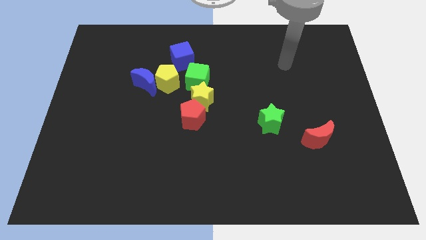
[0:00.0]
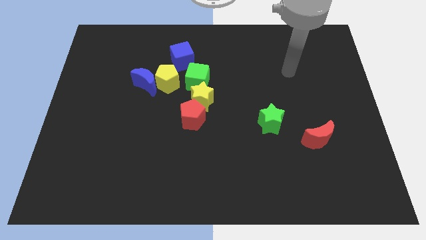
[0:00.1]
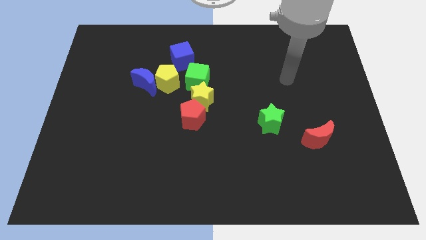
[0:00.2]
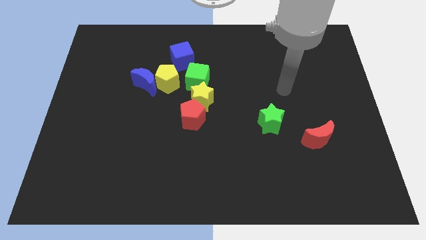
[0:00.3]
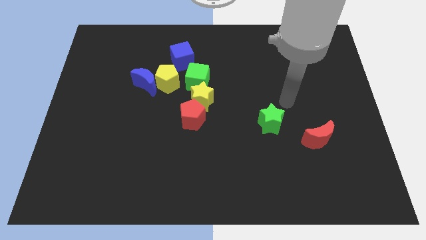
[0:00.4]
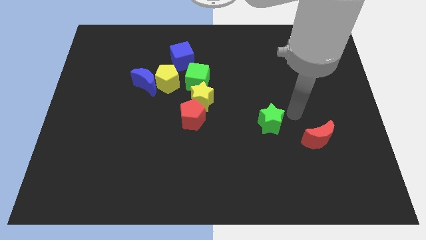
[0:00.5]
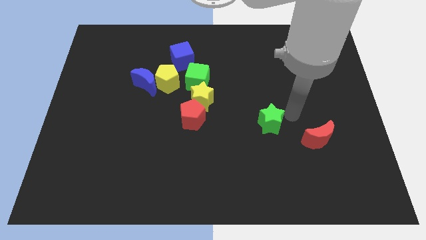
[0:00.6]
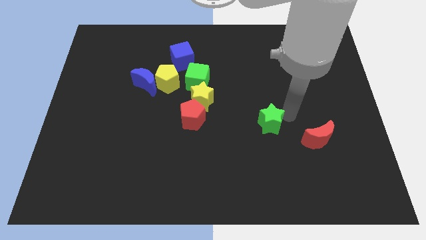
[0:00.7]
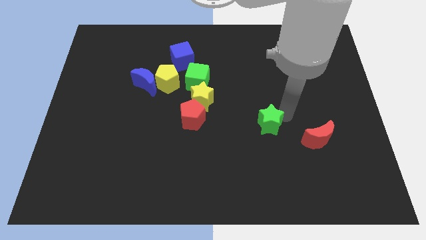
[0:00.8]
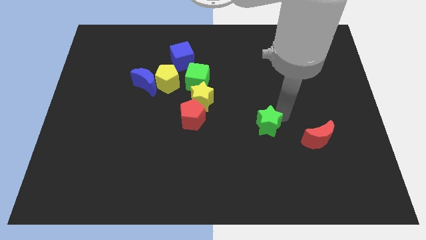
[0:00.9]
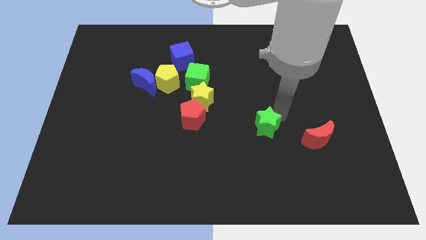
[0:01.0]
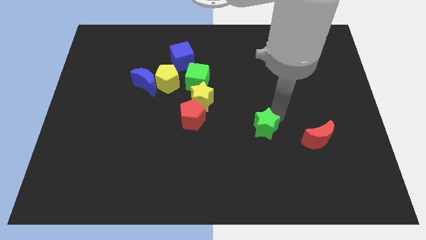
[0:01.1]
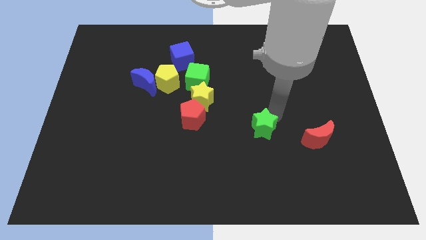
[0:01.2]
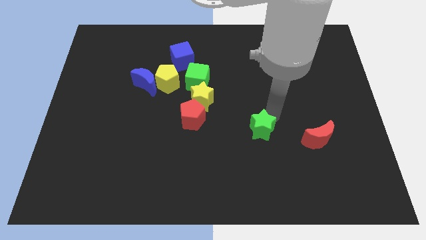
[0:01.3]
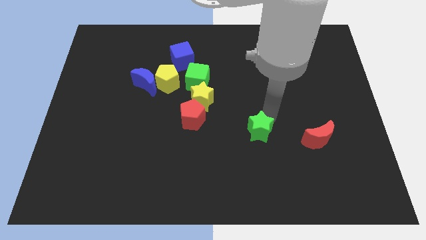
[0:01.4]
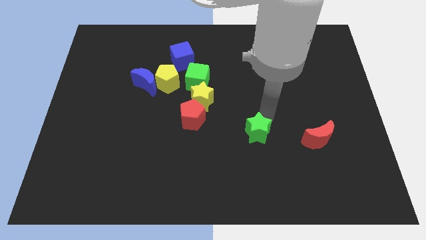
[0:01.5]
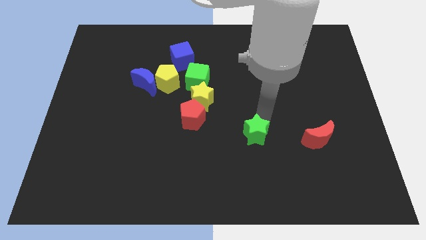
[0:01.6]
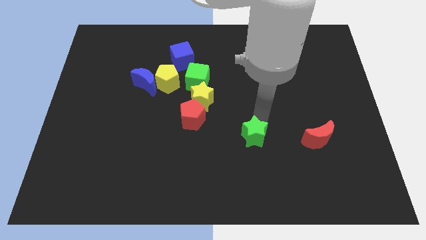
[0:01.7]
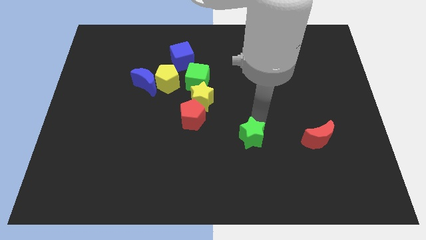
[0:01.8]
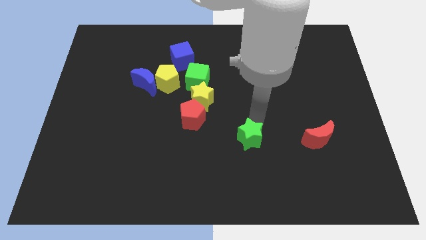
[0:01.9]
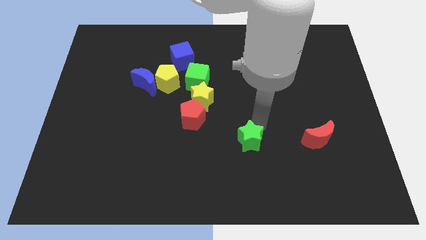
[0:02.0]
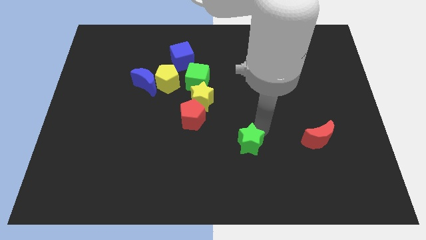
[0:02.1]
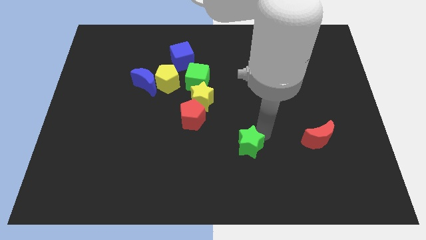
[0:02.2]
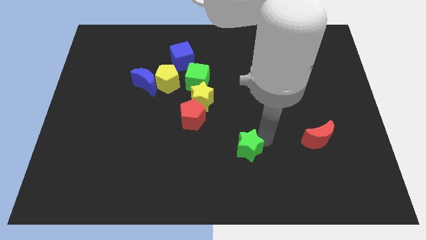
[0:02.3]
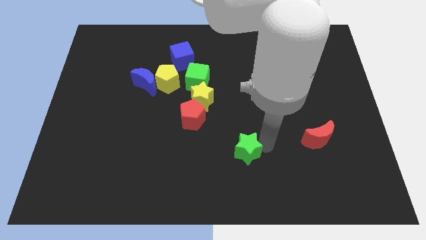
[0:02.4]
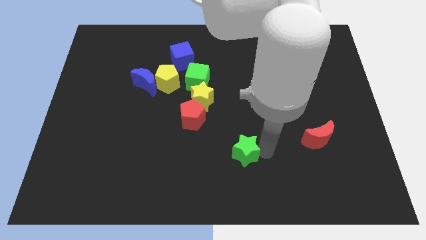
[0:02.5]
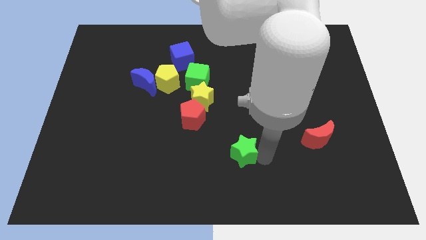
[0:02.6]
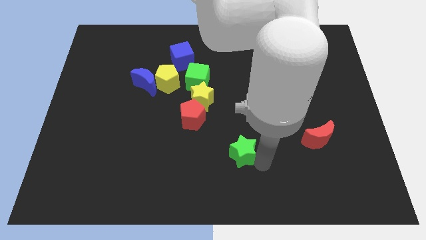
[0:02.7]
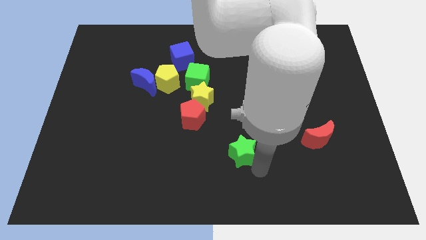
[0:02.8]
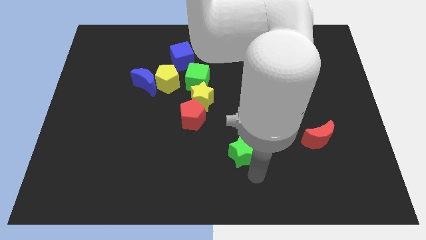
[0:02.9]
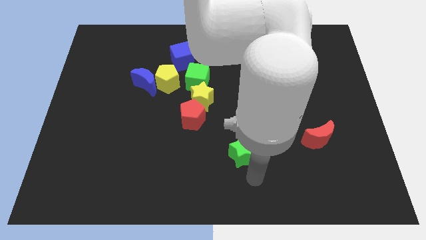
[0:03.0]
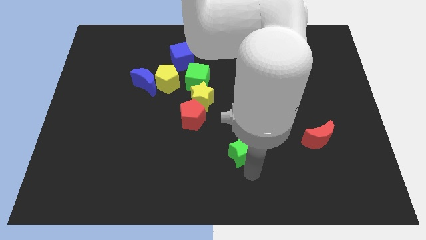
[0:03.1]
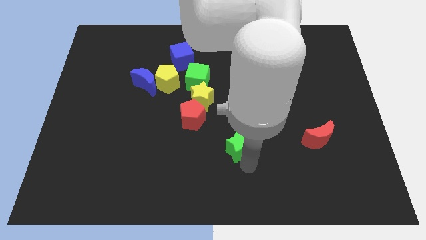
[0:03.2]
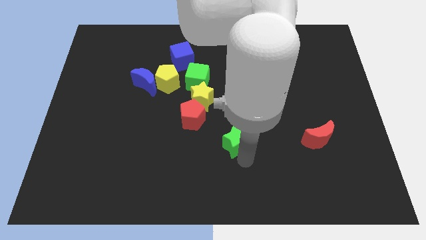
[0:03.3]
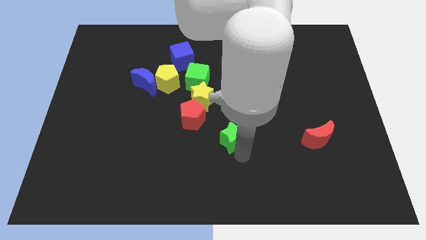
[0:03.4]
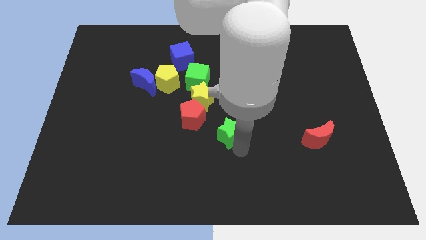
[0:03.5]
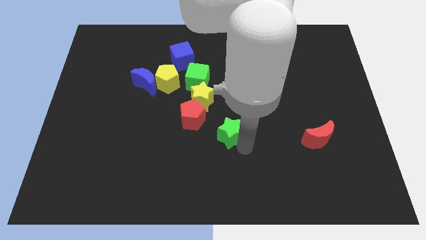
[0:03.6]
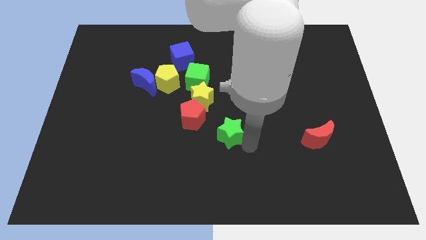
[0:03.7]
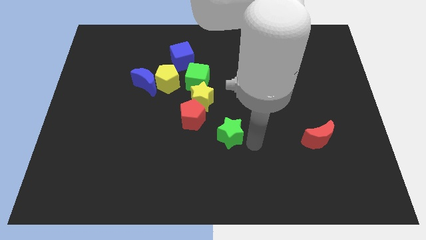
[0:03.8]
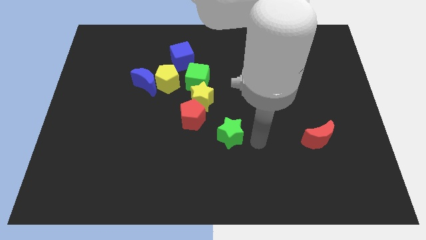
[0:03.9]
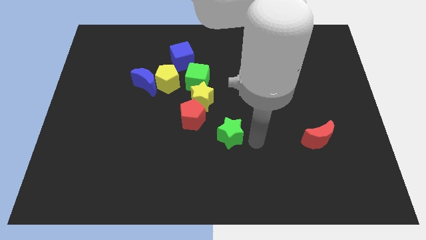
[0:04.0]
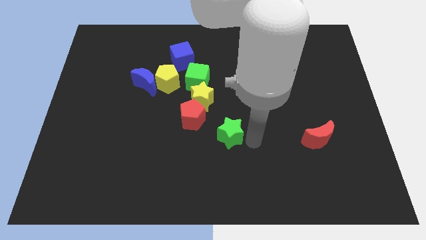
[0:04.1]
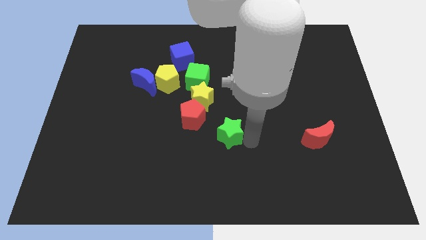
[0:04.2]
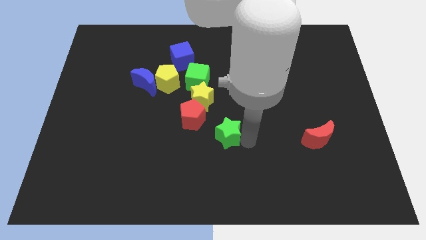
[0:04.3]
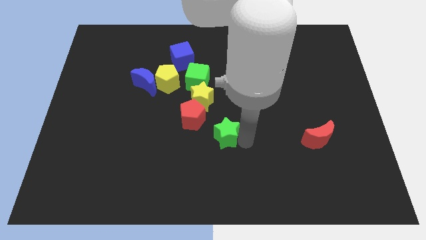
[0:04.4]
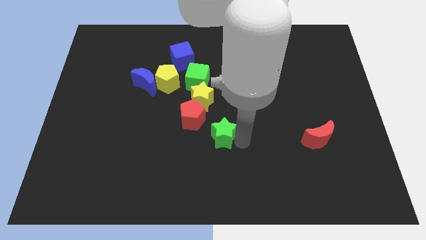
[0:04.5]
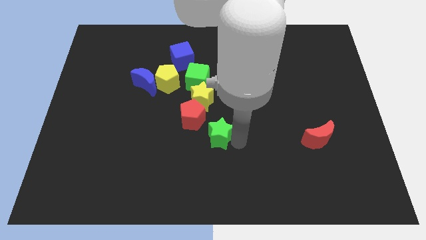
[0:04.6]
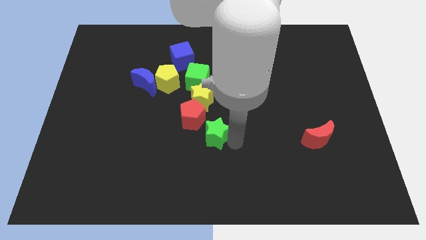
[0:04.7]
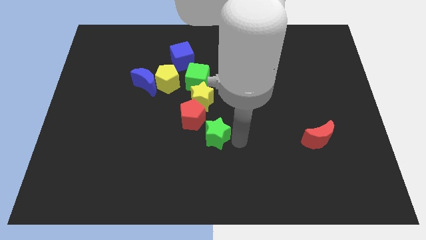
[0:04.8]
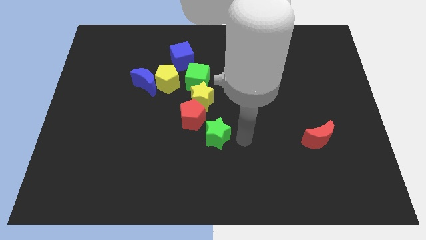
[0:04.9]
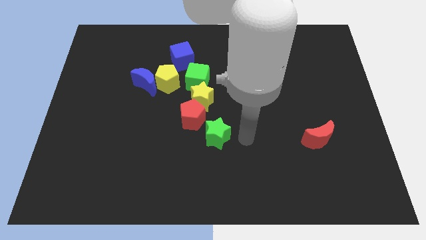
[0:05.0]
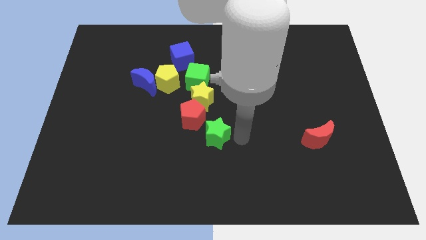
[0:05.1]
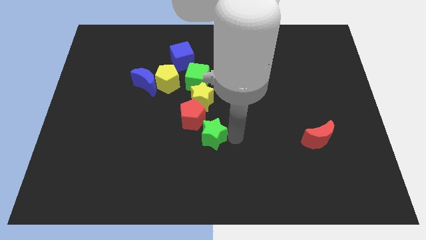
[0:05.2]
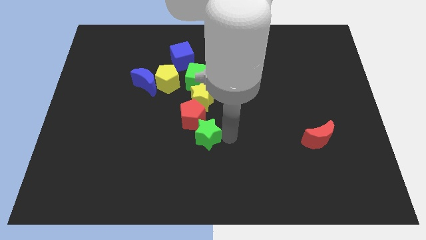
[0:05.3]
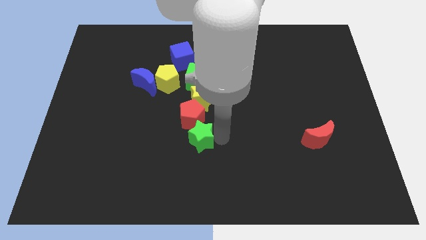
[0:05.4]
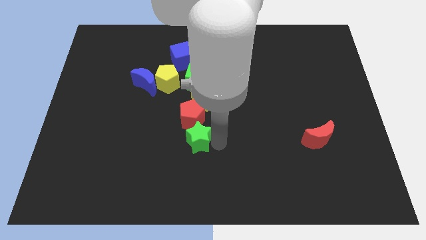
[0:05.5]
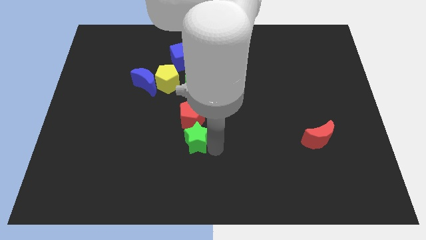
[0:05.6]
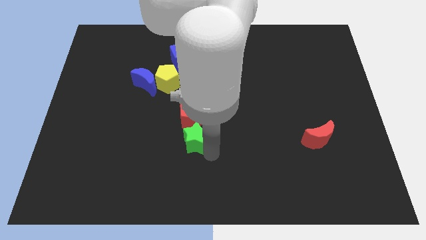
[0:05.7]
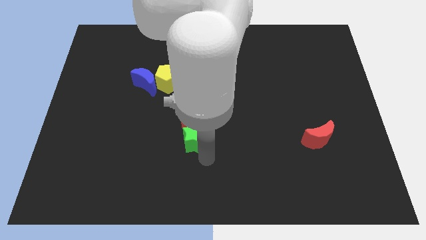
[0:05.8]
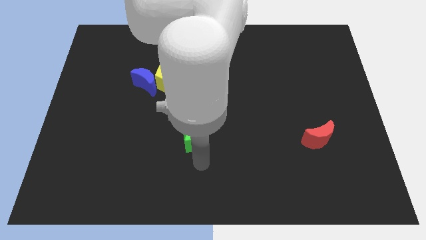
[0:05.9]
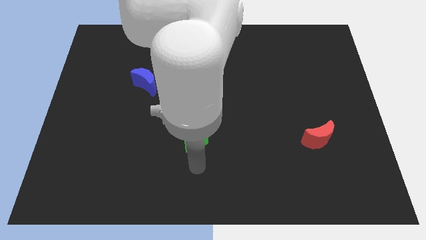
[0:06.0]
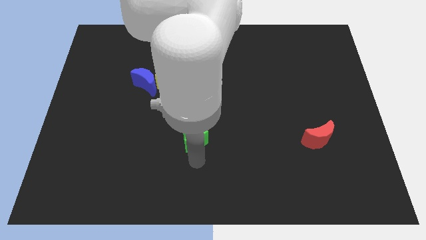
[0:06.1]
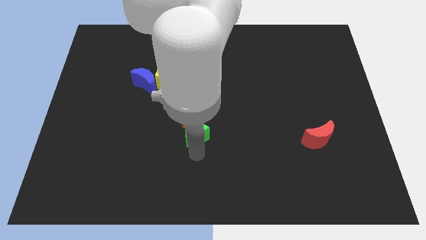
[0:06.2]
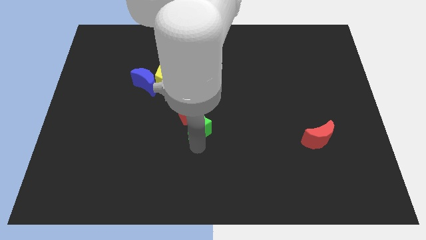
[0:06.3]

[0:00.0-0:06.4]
move the green star below the green cube

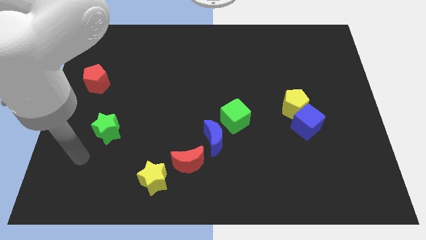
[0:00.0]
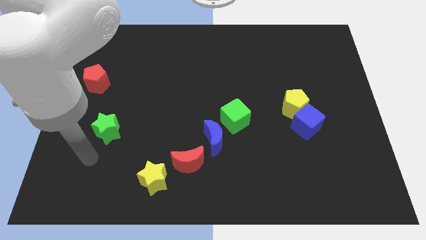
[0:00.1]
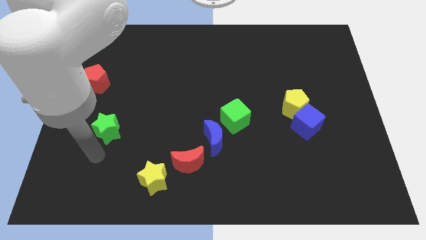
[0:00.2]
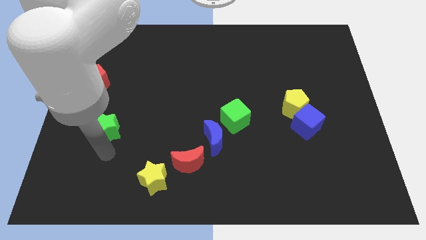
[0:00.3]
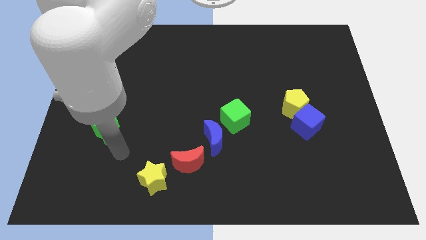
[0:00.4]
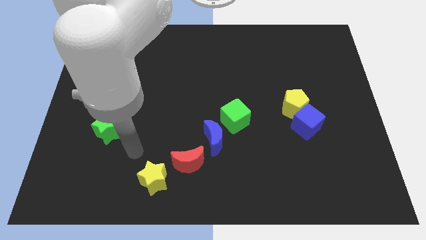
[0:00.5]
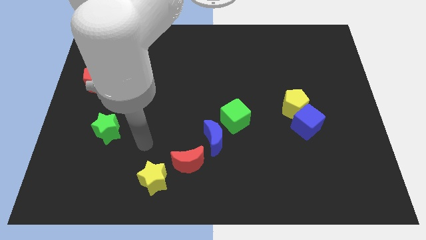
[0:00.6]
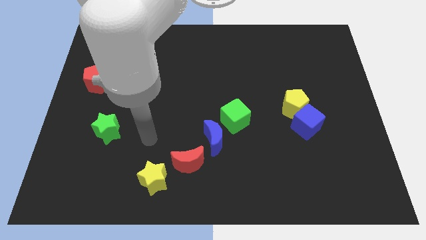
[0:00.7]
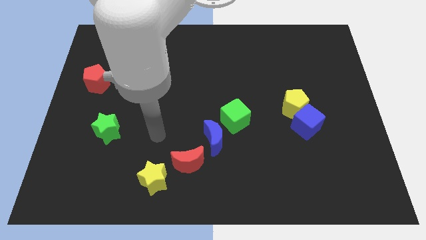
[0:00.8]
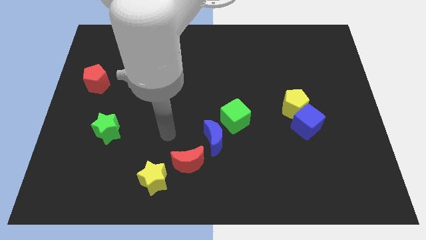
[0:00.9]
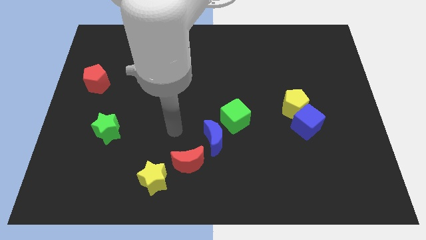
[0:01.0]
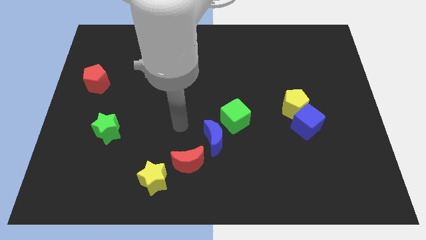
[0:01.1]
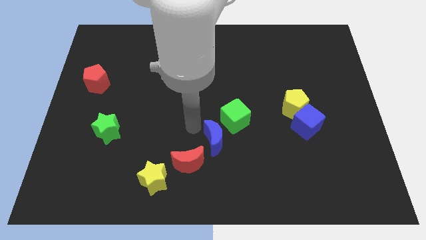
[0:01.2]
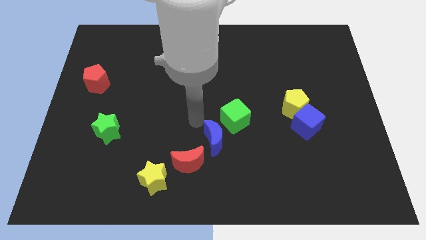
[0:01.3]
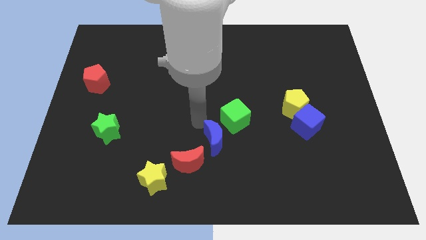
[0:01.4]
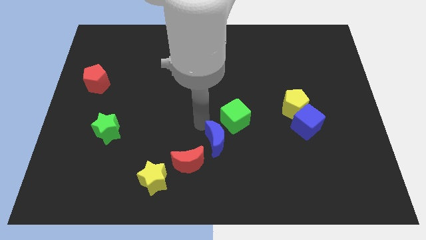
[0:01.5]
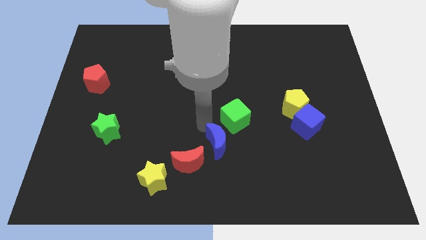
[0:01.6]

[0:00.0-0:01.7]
move the blue moon to the right of the red moon
